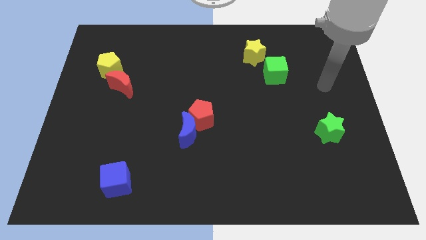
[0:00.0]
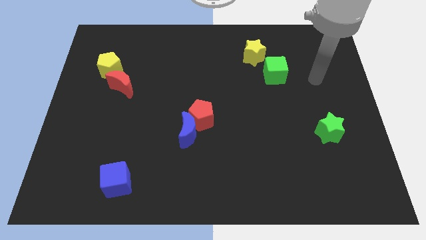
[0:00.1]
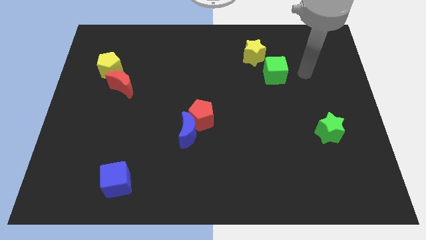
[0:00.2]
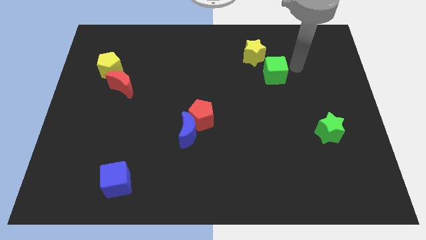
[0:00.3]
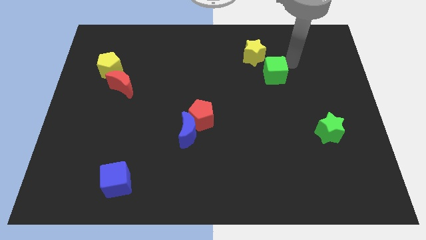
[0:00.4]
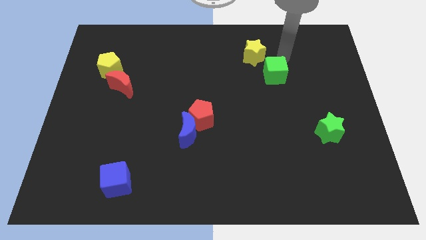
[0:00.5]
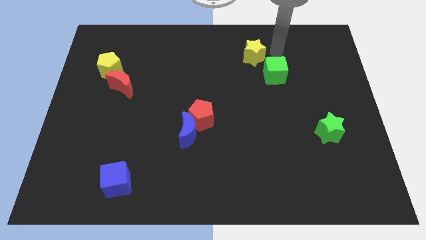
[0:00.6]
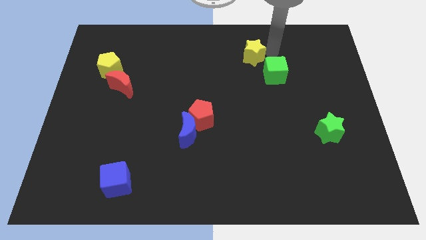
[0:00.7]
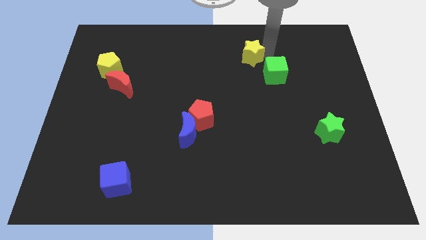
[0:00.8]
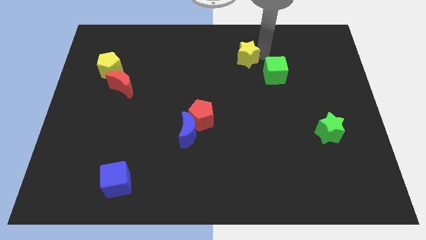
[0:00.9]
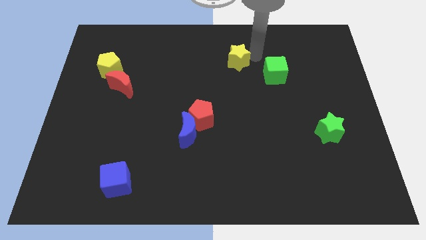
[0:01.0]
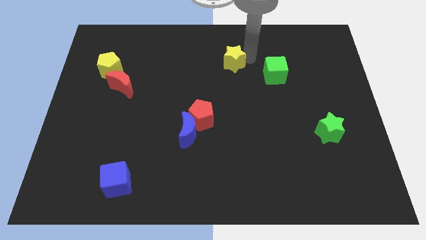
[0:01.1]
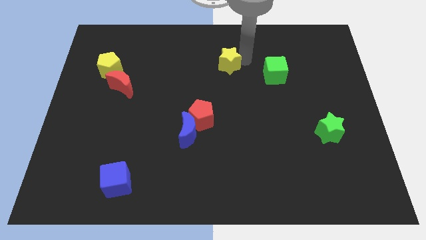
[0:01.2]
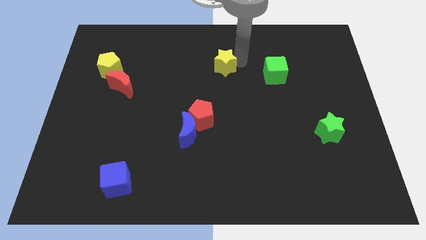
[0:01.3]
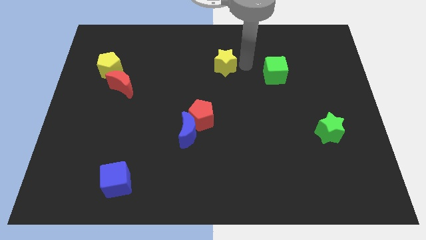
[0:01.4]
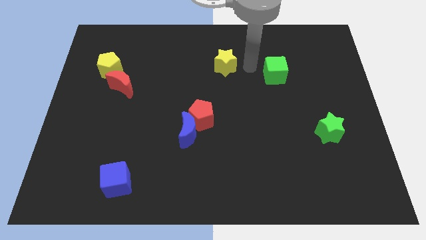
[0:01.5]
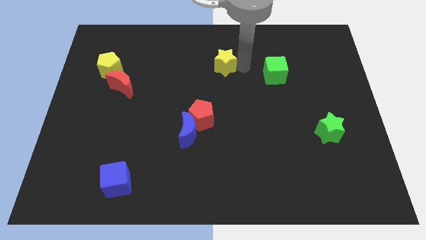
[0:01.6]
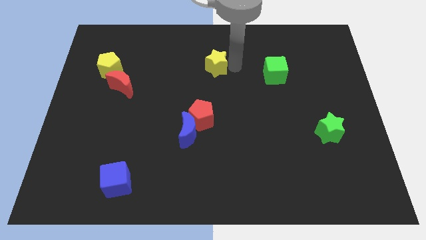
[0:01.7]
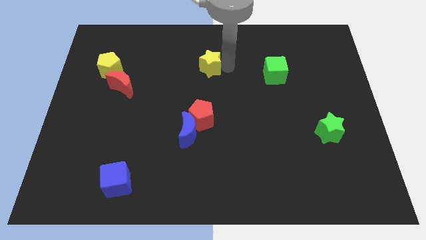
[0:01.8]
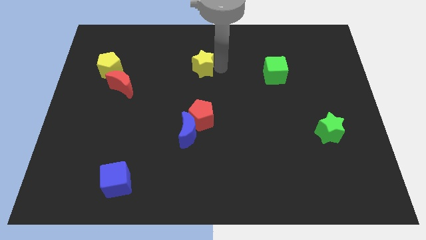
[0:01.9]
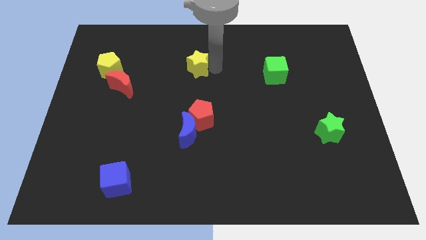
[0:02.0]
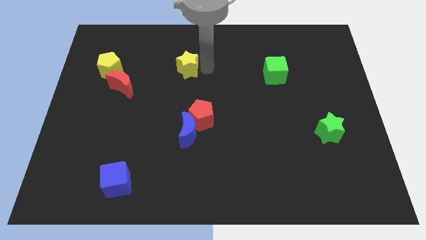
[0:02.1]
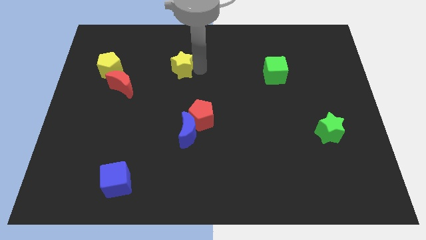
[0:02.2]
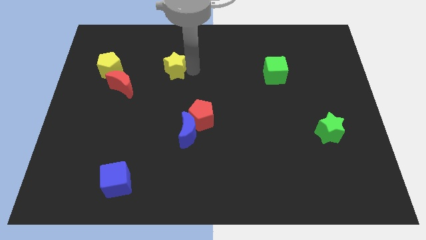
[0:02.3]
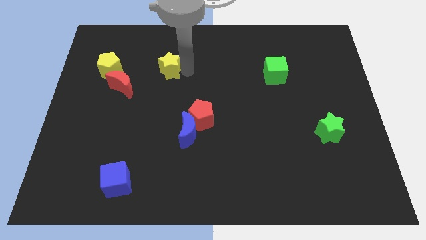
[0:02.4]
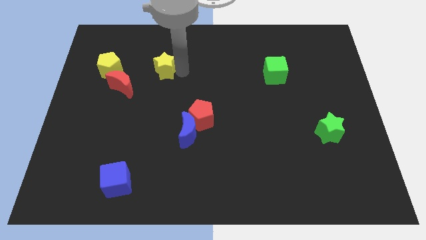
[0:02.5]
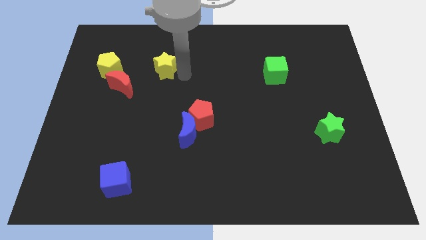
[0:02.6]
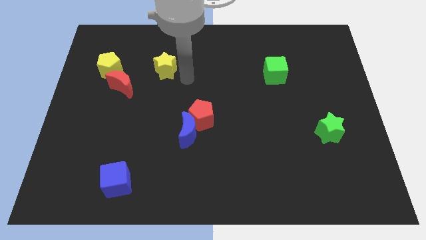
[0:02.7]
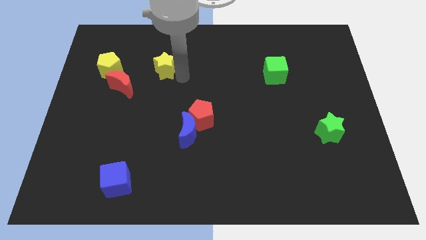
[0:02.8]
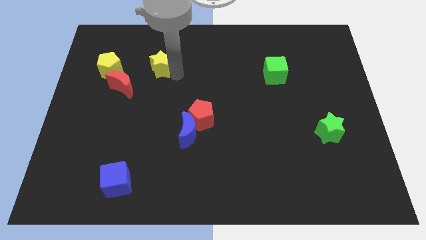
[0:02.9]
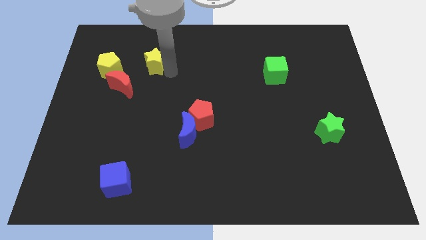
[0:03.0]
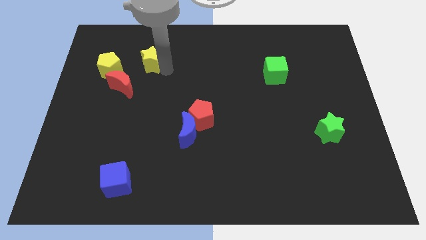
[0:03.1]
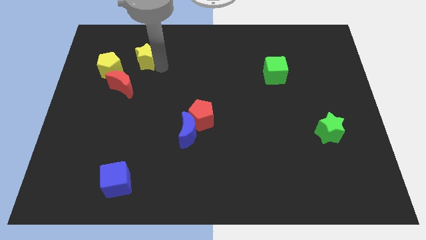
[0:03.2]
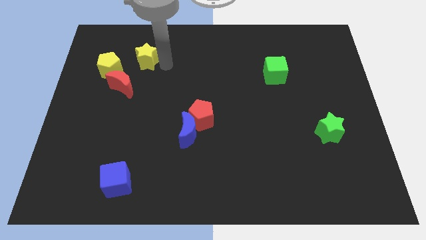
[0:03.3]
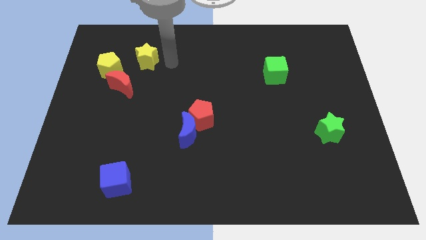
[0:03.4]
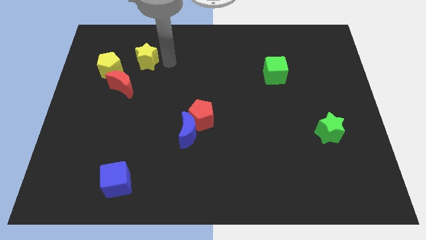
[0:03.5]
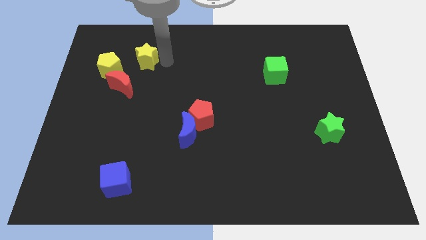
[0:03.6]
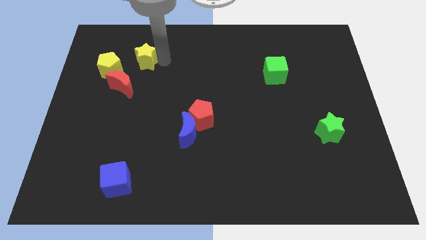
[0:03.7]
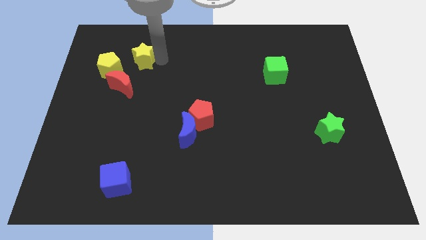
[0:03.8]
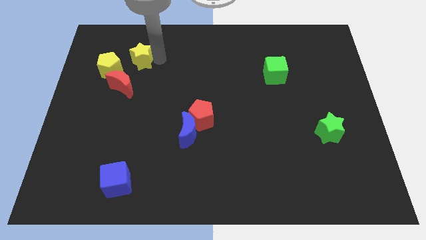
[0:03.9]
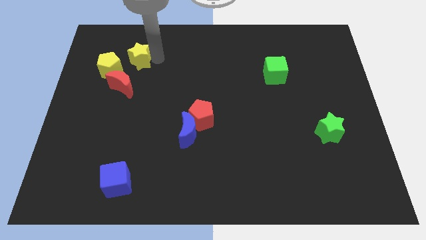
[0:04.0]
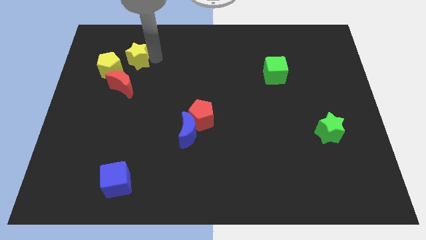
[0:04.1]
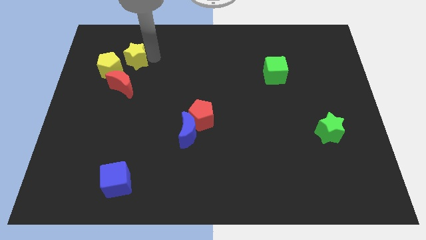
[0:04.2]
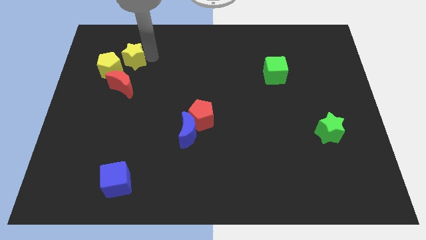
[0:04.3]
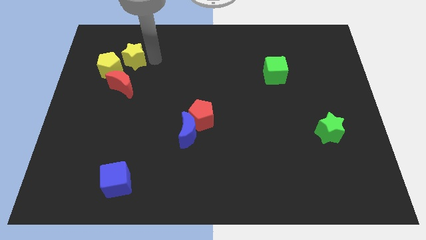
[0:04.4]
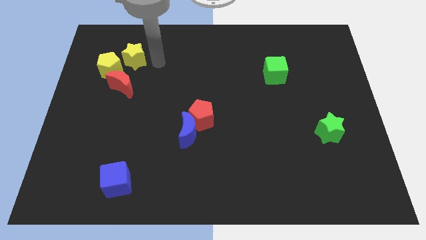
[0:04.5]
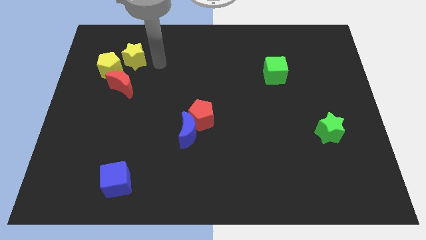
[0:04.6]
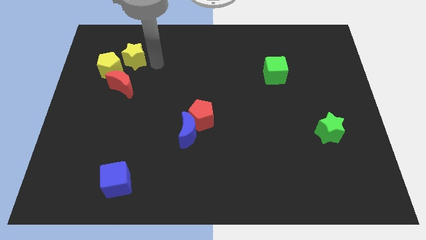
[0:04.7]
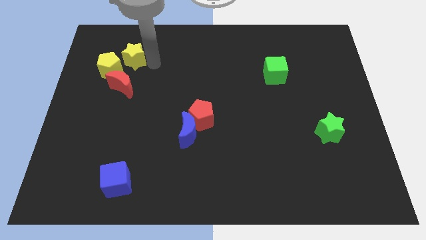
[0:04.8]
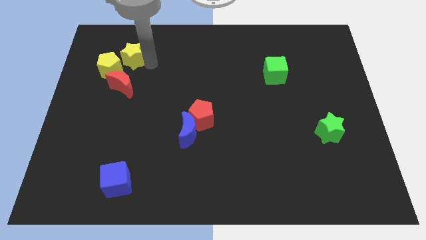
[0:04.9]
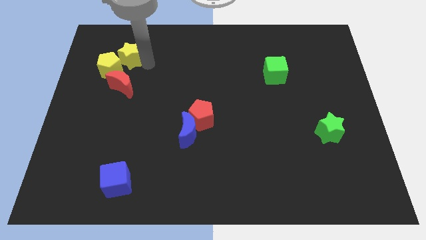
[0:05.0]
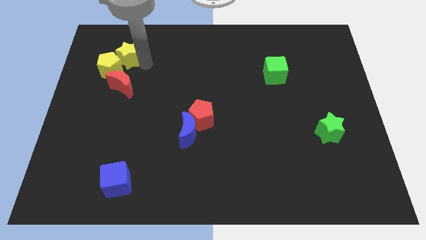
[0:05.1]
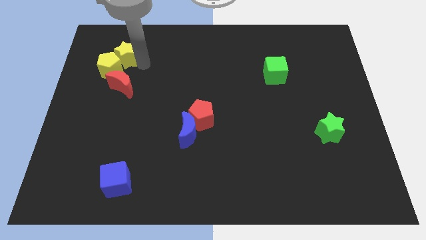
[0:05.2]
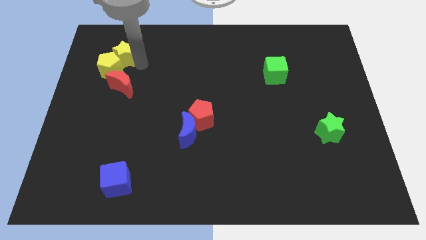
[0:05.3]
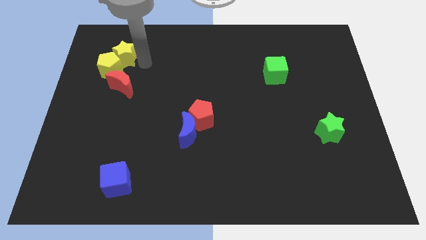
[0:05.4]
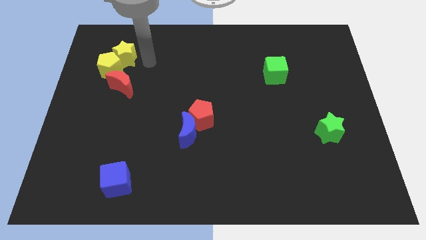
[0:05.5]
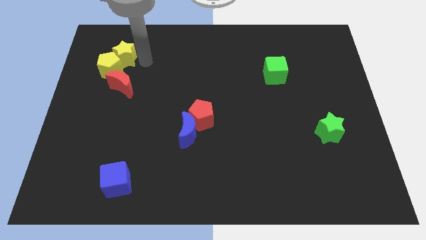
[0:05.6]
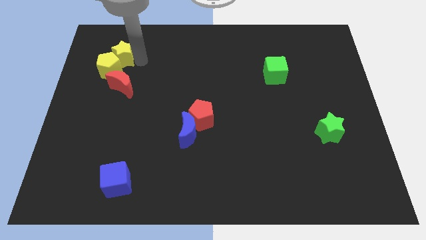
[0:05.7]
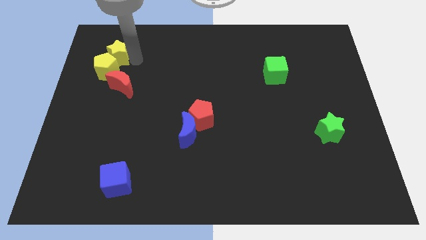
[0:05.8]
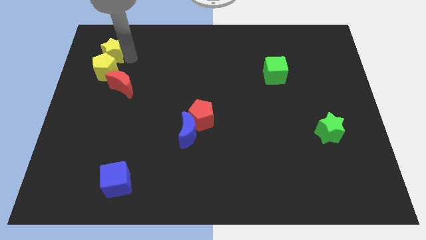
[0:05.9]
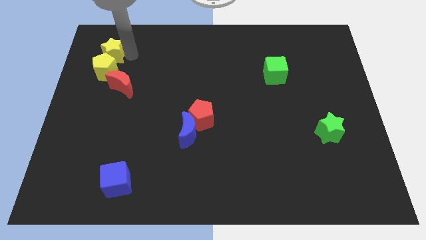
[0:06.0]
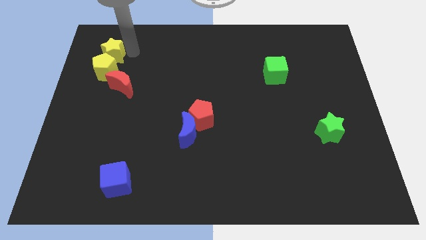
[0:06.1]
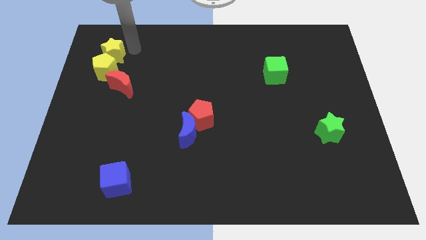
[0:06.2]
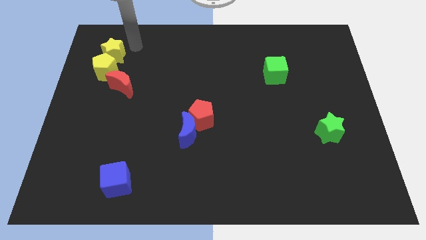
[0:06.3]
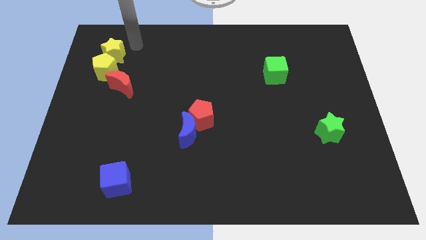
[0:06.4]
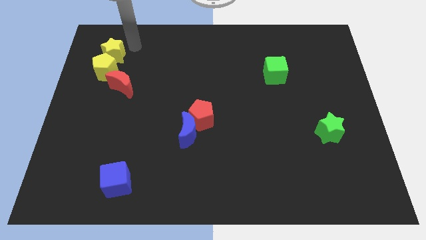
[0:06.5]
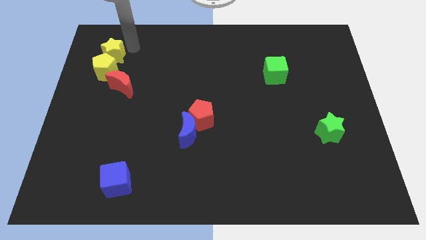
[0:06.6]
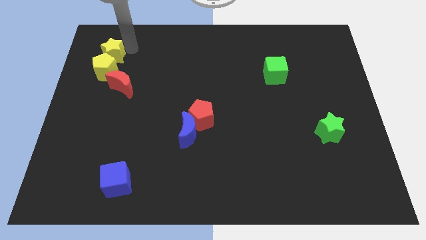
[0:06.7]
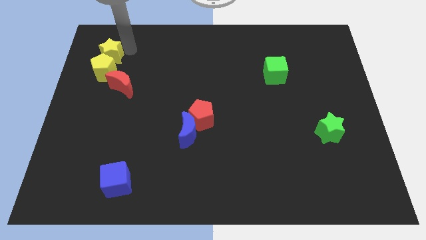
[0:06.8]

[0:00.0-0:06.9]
move the yellow star to the top left of the red moon
